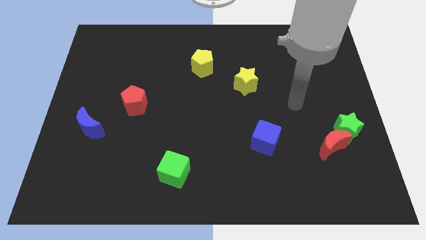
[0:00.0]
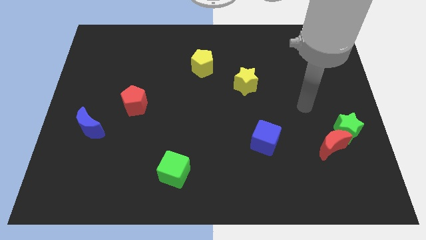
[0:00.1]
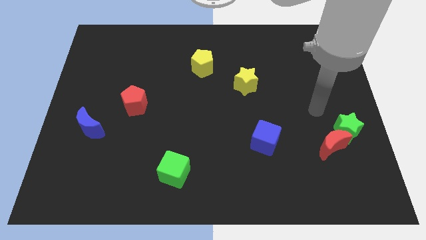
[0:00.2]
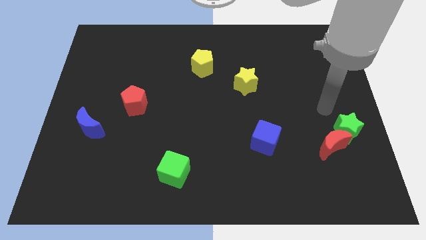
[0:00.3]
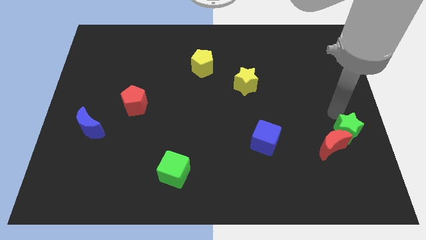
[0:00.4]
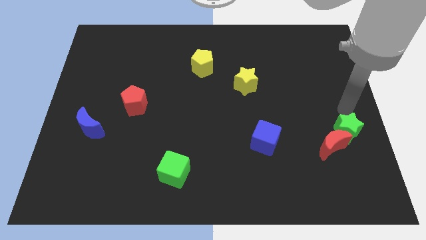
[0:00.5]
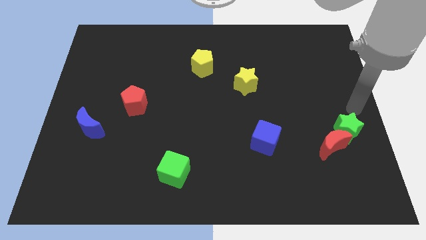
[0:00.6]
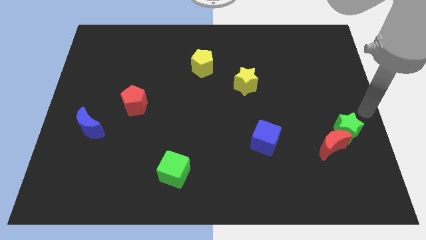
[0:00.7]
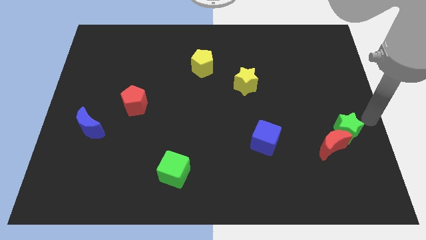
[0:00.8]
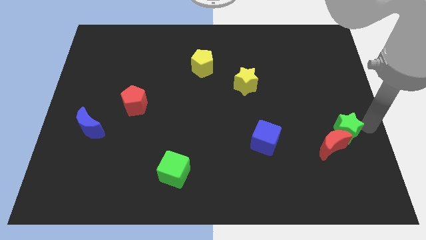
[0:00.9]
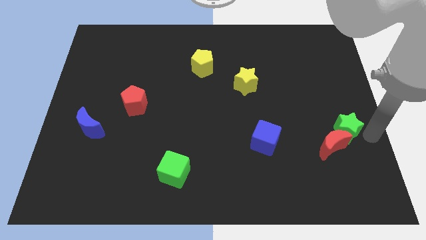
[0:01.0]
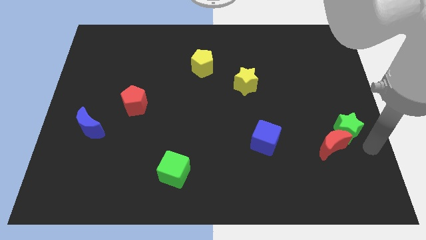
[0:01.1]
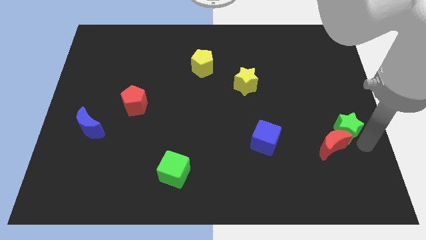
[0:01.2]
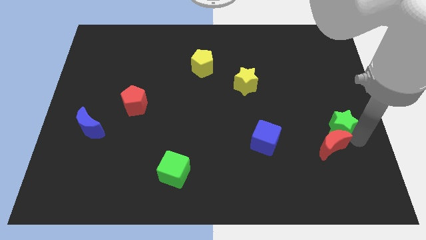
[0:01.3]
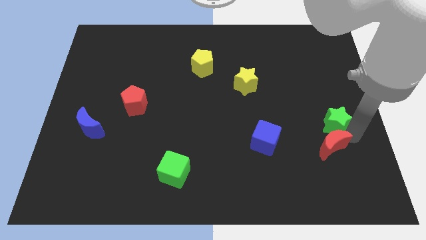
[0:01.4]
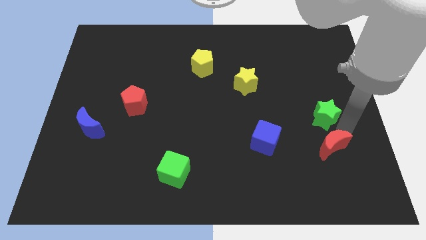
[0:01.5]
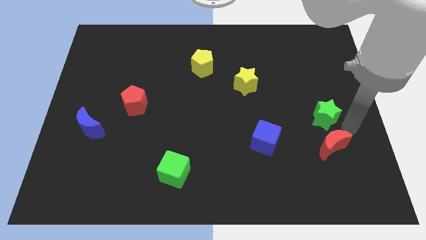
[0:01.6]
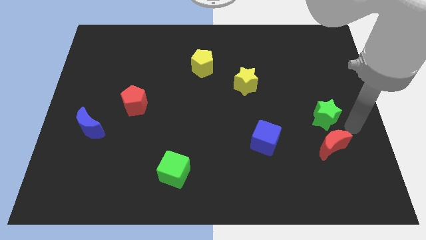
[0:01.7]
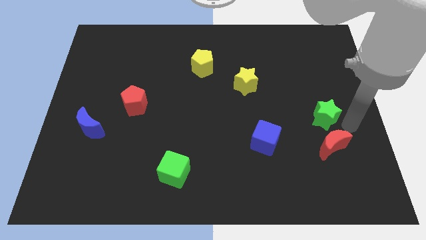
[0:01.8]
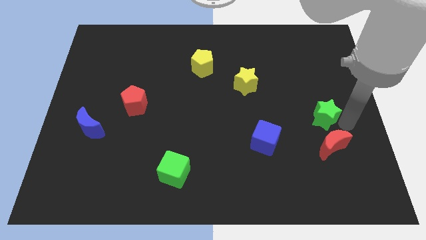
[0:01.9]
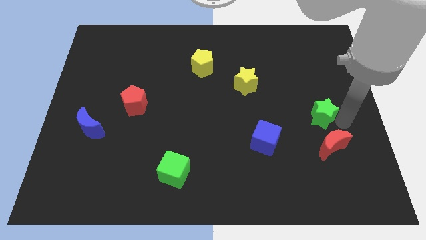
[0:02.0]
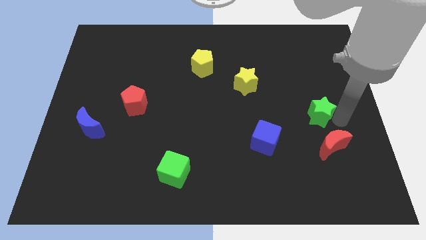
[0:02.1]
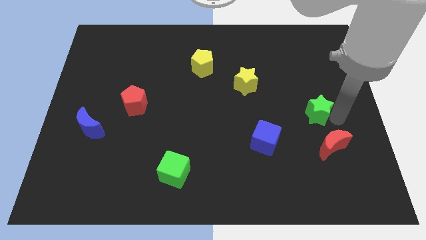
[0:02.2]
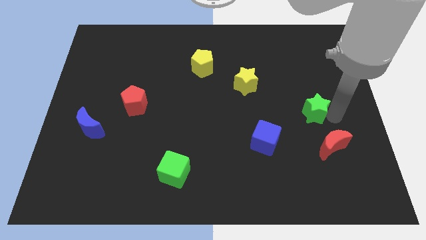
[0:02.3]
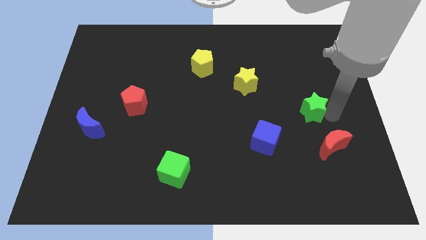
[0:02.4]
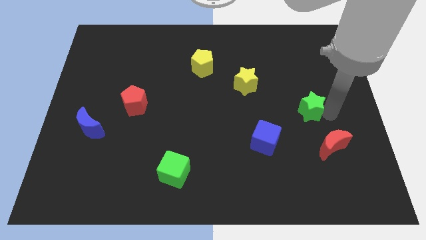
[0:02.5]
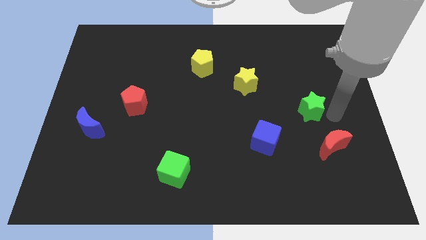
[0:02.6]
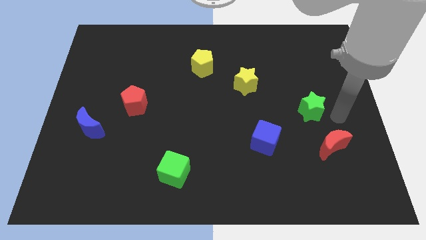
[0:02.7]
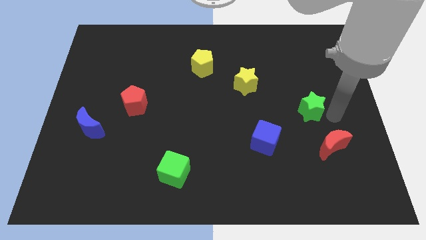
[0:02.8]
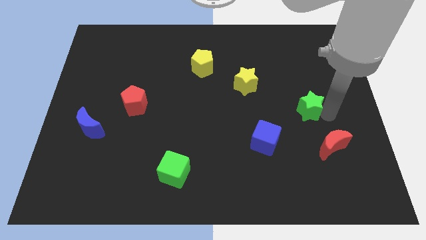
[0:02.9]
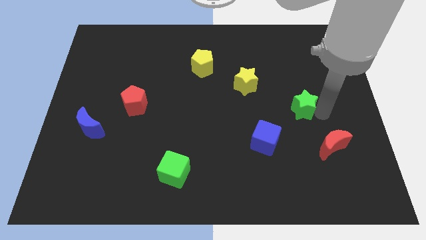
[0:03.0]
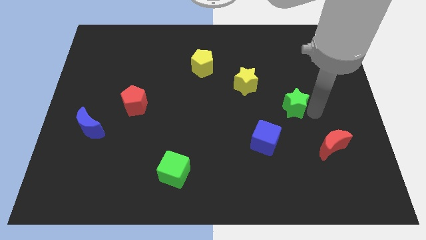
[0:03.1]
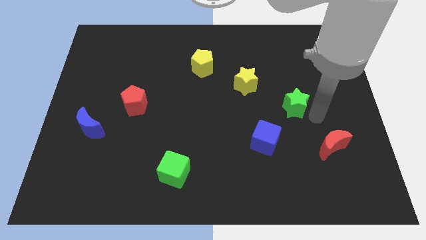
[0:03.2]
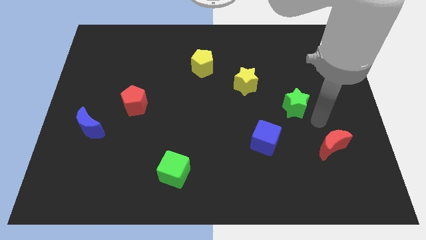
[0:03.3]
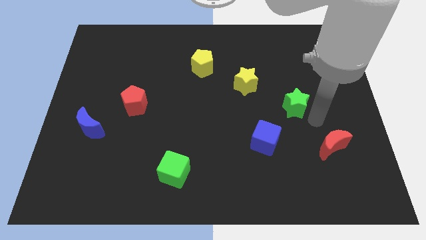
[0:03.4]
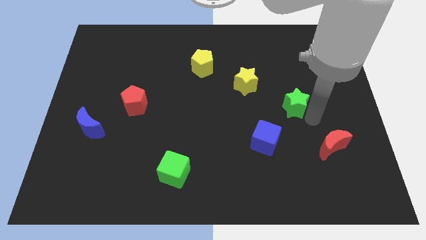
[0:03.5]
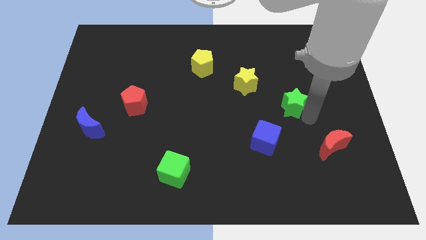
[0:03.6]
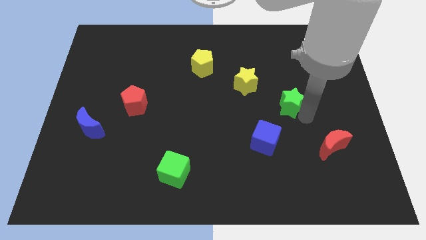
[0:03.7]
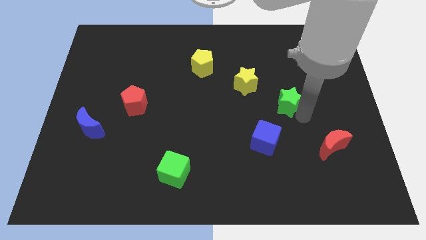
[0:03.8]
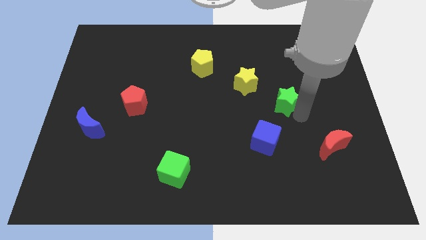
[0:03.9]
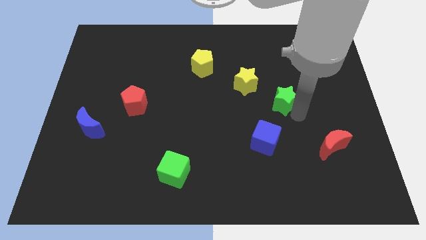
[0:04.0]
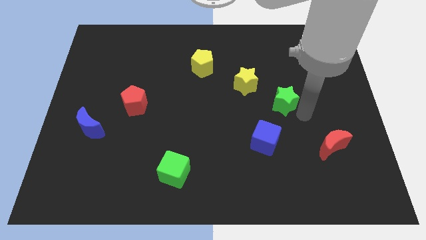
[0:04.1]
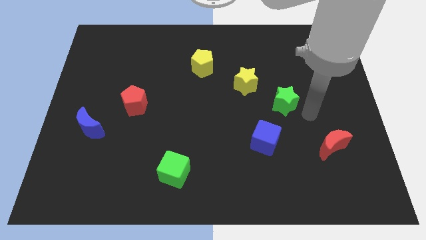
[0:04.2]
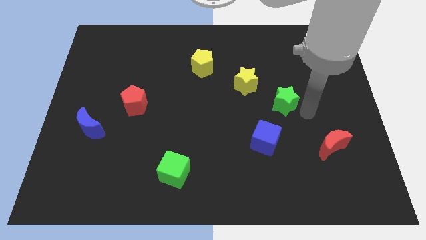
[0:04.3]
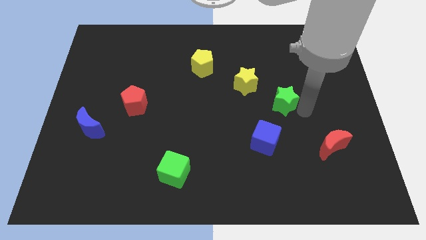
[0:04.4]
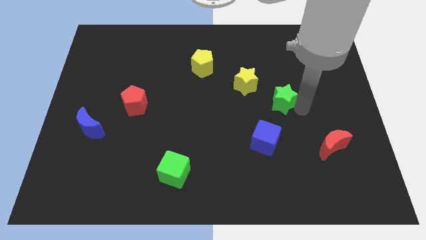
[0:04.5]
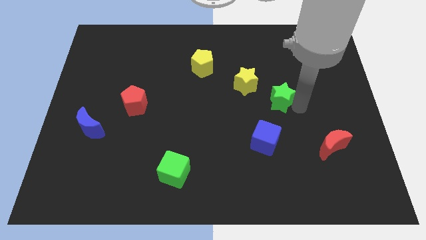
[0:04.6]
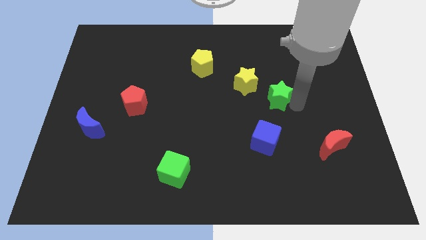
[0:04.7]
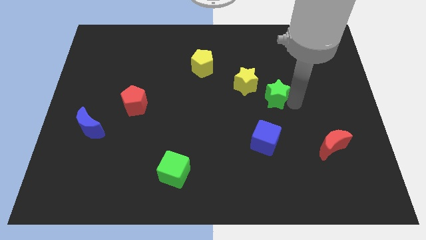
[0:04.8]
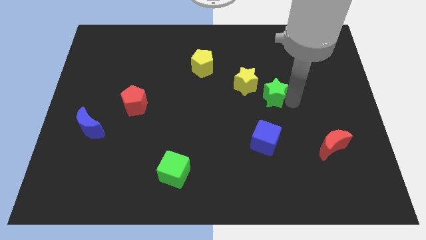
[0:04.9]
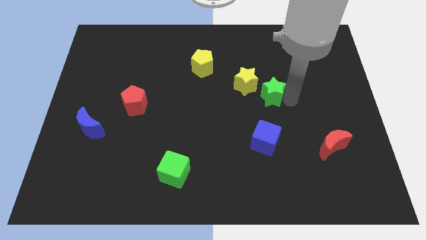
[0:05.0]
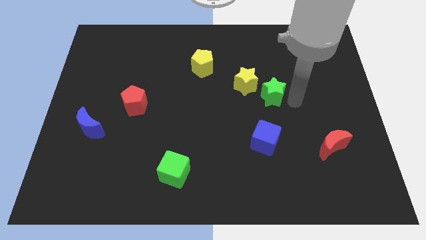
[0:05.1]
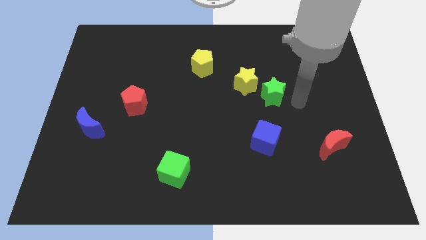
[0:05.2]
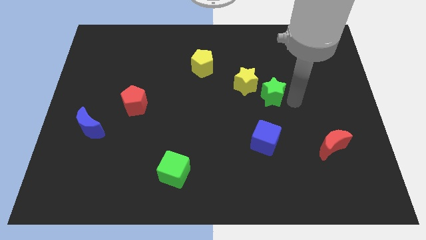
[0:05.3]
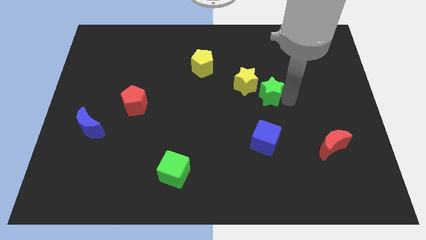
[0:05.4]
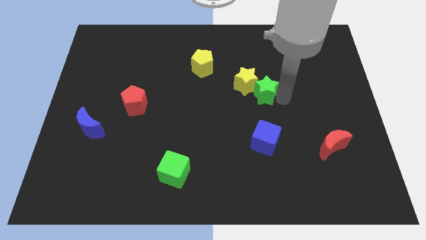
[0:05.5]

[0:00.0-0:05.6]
move the green star towards the yellow star

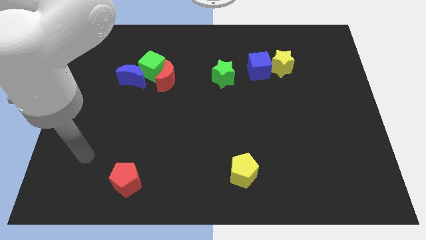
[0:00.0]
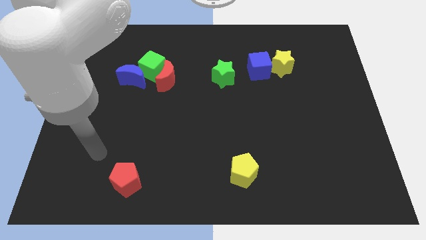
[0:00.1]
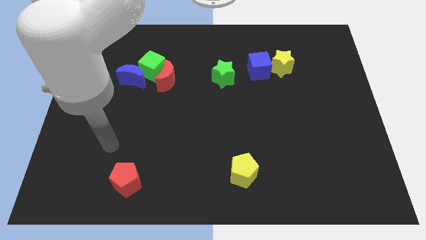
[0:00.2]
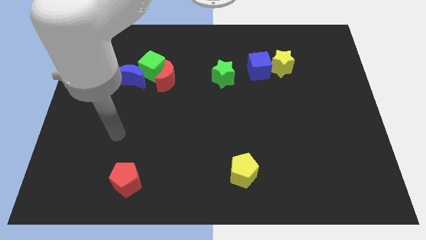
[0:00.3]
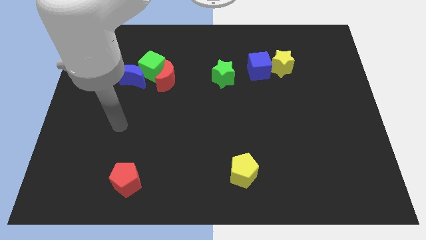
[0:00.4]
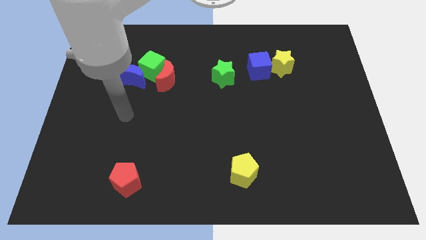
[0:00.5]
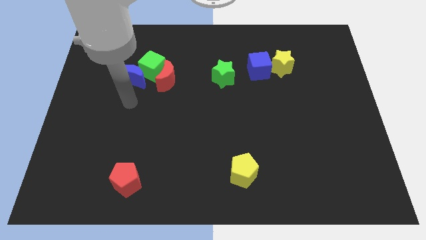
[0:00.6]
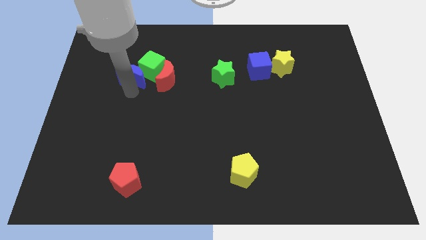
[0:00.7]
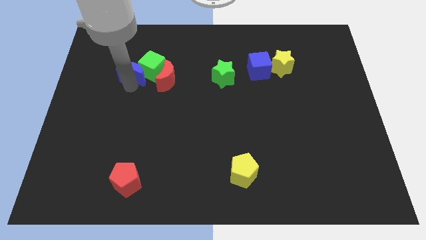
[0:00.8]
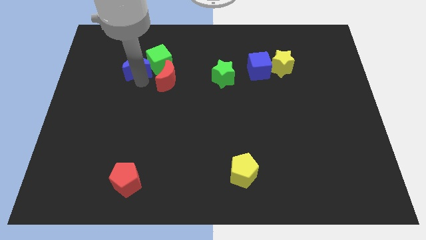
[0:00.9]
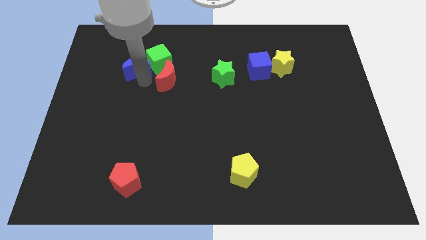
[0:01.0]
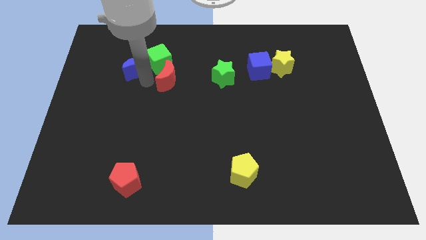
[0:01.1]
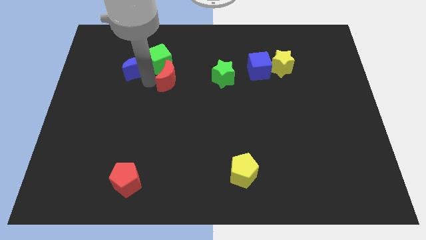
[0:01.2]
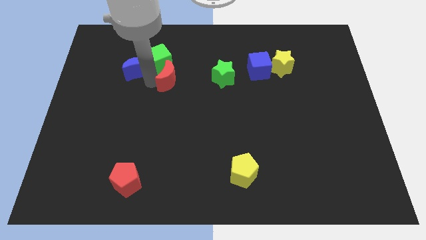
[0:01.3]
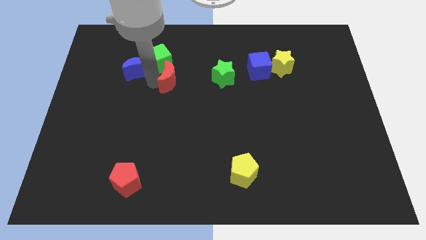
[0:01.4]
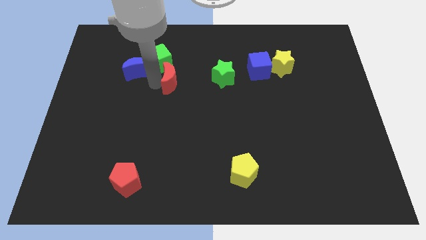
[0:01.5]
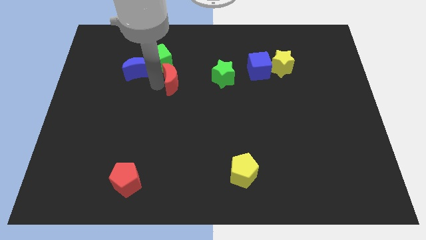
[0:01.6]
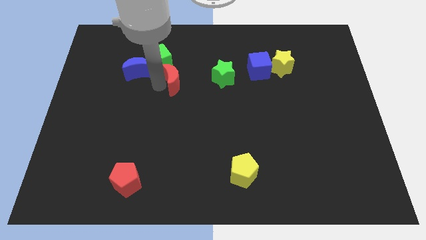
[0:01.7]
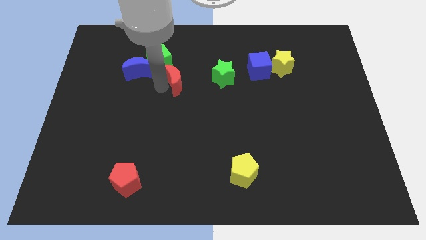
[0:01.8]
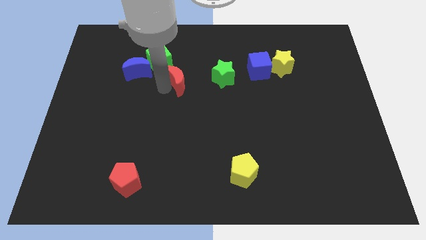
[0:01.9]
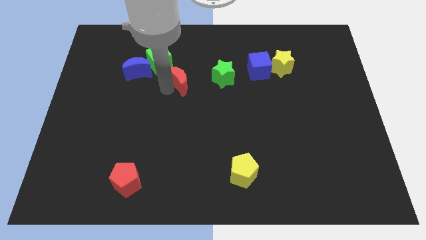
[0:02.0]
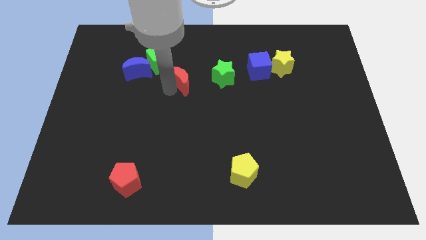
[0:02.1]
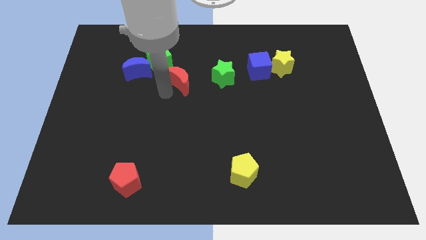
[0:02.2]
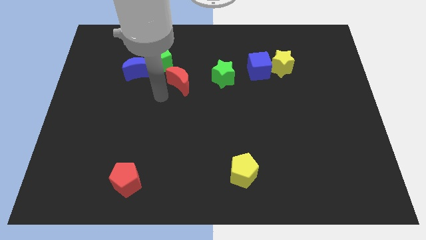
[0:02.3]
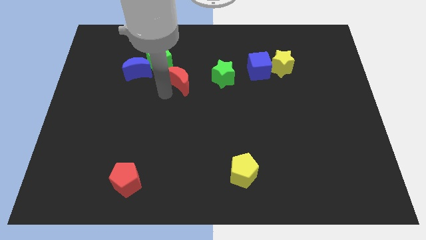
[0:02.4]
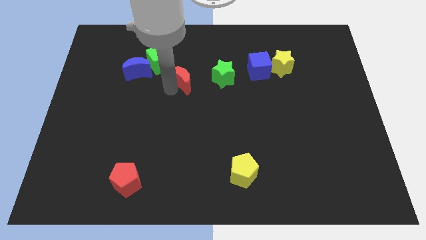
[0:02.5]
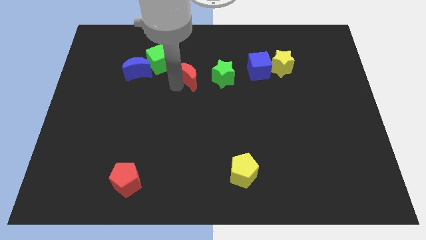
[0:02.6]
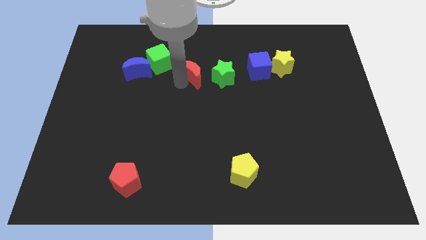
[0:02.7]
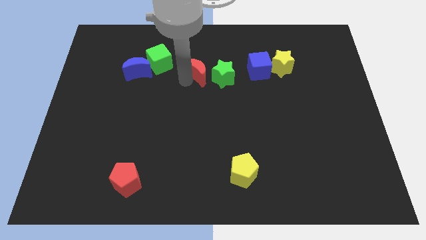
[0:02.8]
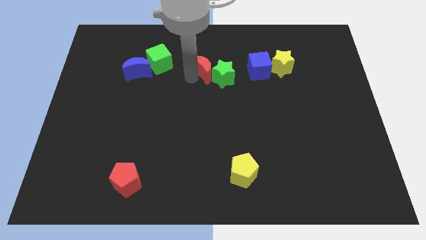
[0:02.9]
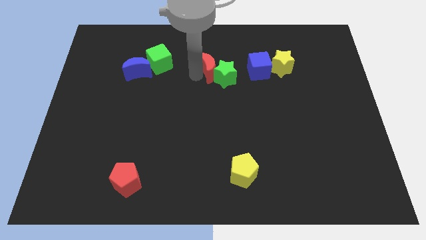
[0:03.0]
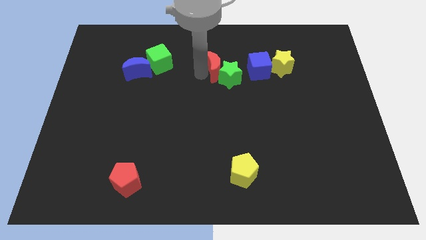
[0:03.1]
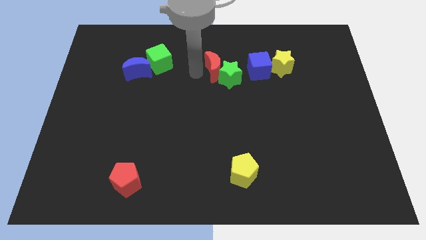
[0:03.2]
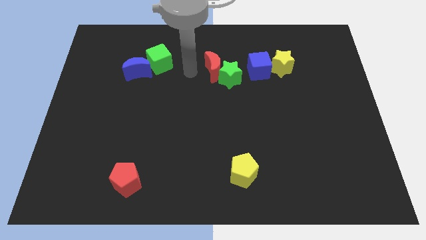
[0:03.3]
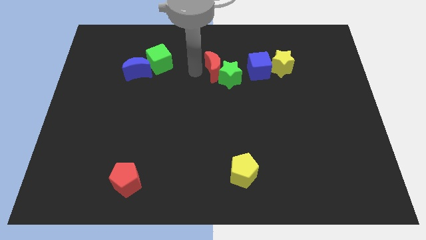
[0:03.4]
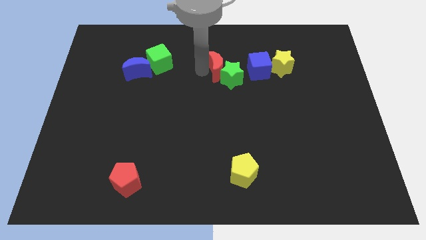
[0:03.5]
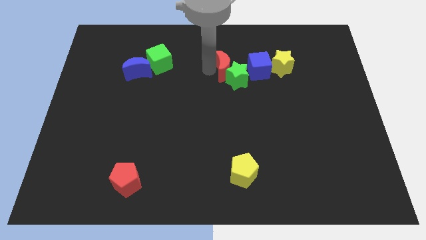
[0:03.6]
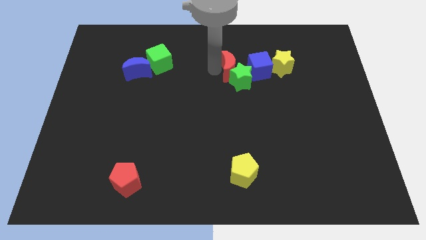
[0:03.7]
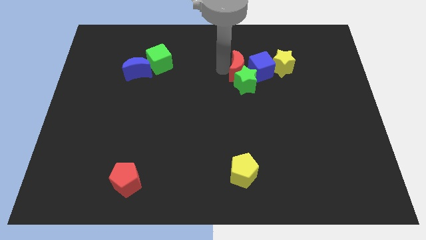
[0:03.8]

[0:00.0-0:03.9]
move the red moon towards the blue cube
